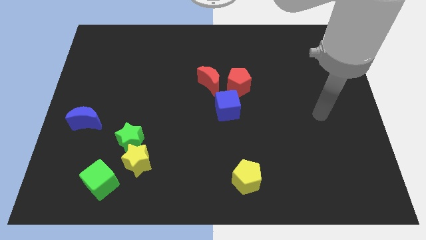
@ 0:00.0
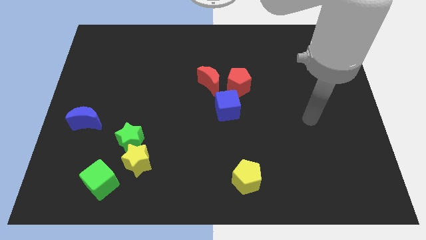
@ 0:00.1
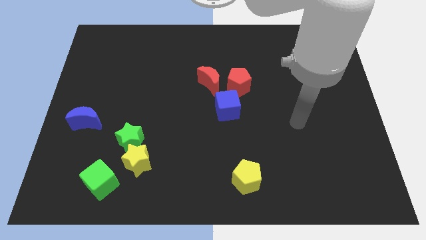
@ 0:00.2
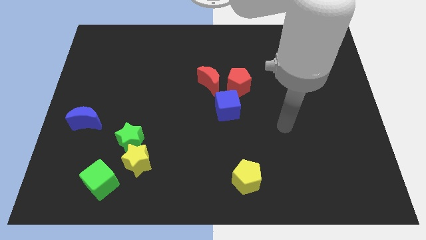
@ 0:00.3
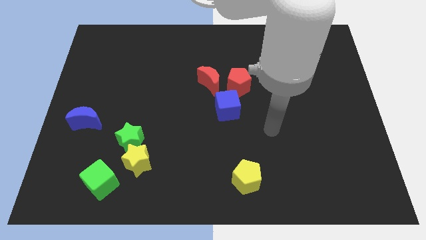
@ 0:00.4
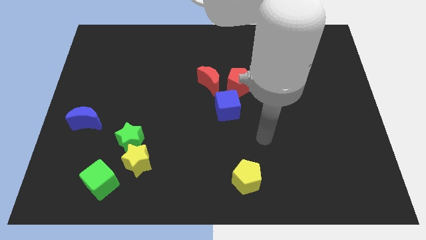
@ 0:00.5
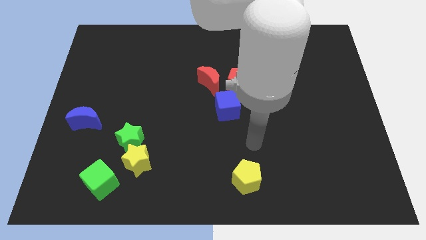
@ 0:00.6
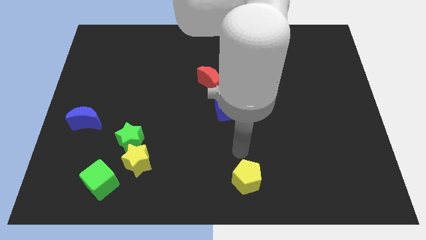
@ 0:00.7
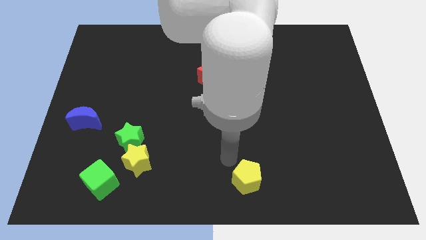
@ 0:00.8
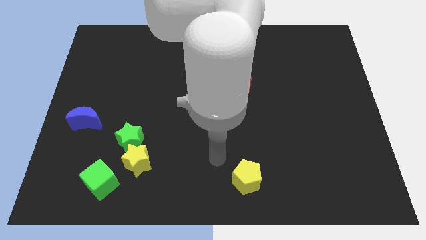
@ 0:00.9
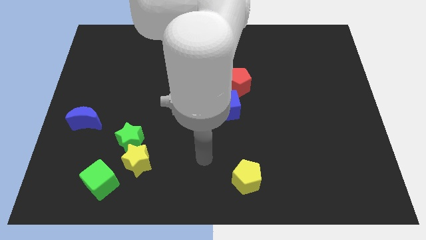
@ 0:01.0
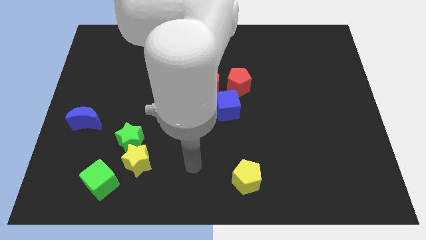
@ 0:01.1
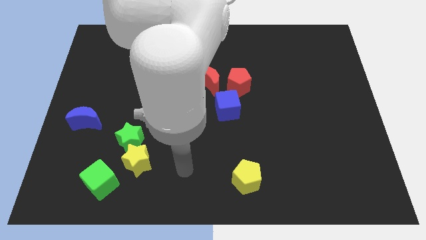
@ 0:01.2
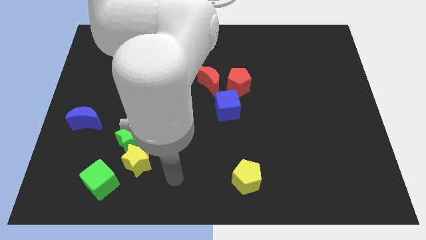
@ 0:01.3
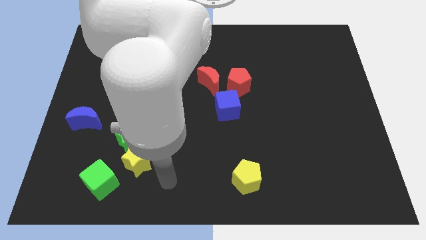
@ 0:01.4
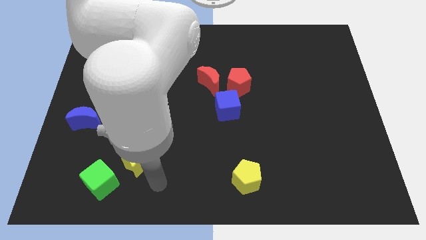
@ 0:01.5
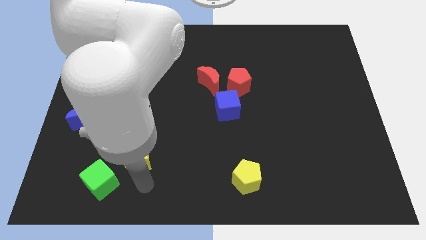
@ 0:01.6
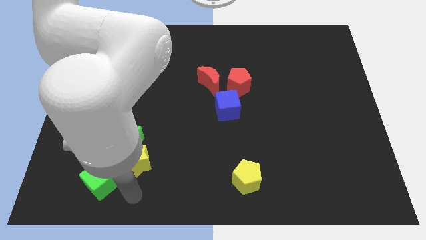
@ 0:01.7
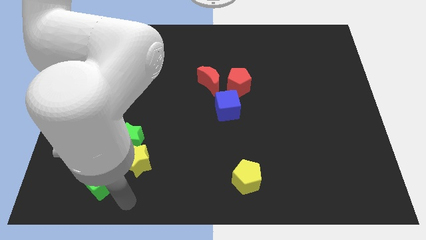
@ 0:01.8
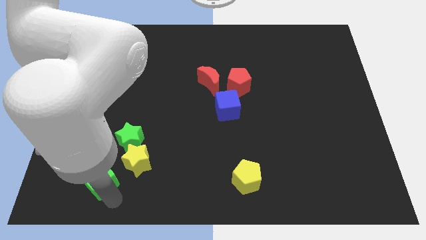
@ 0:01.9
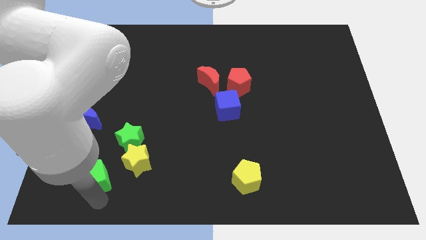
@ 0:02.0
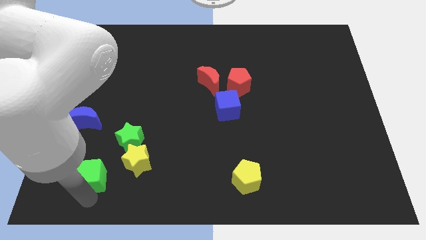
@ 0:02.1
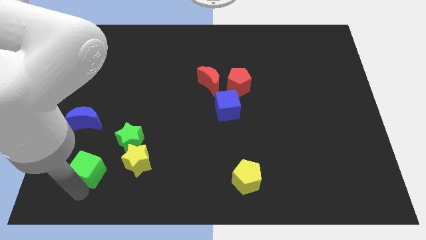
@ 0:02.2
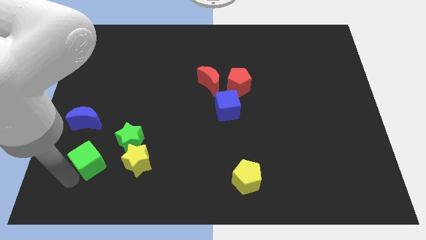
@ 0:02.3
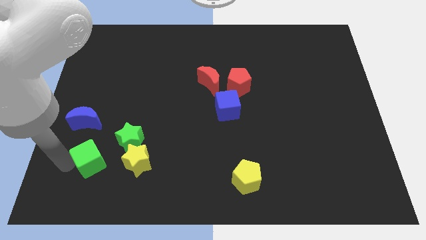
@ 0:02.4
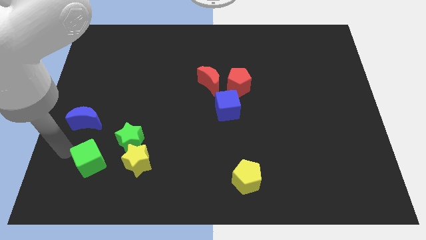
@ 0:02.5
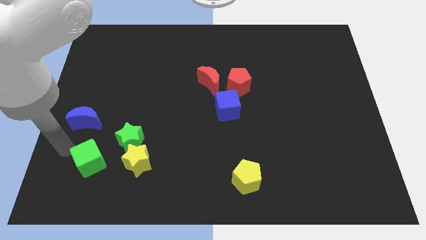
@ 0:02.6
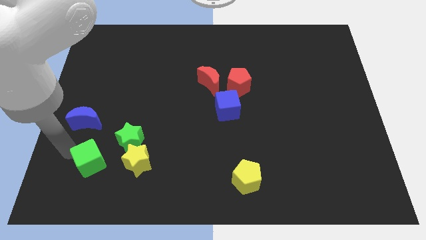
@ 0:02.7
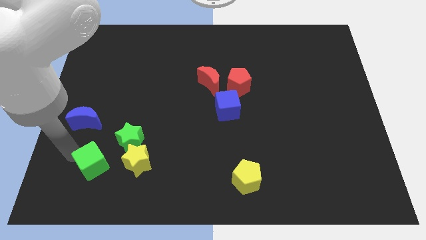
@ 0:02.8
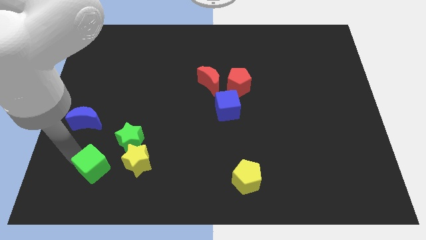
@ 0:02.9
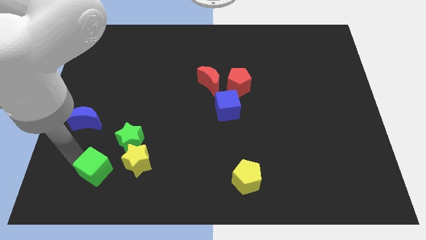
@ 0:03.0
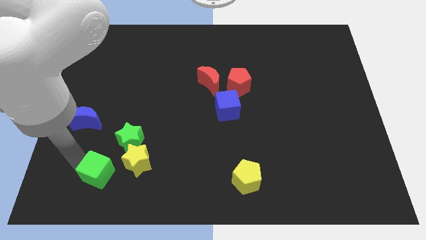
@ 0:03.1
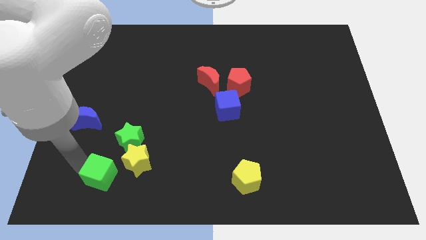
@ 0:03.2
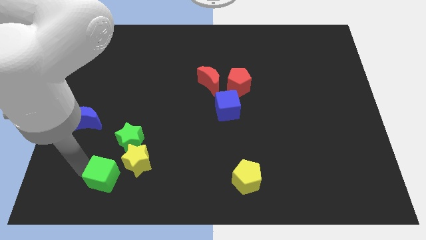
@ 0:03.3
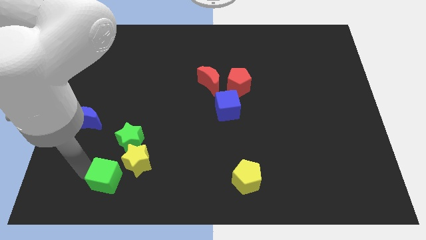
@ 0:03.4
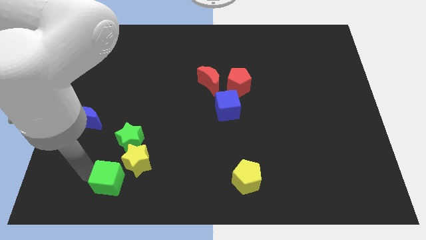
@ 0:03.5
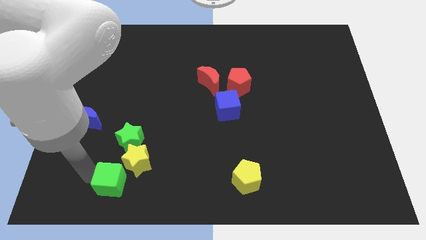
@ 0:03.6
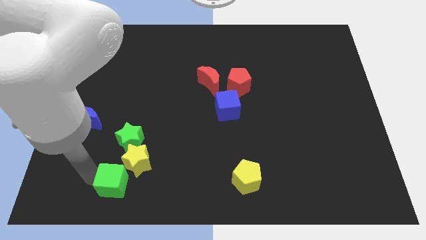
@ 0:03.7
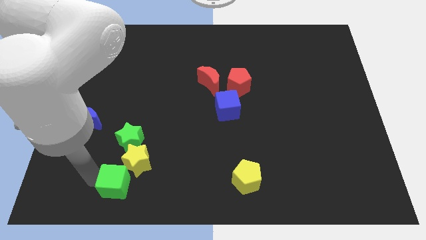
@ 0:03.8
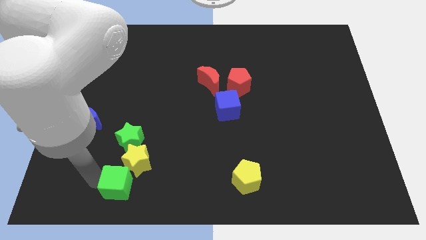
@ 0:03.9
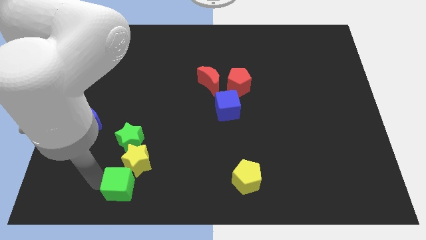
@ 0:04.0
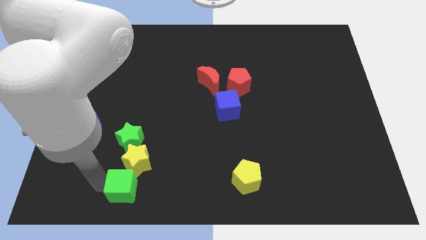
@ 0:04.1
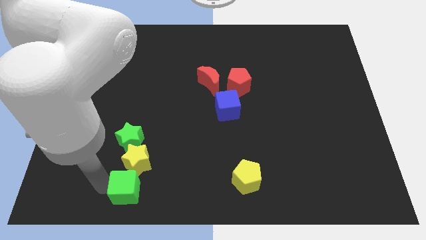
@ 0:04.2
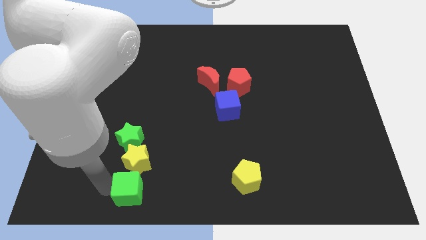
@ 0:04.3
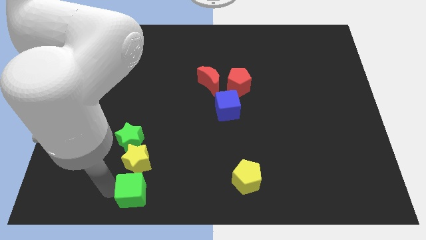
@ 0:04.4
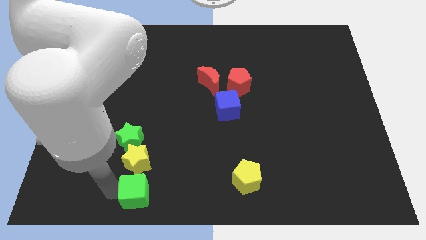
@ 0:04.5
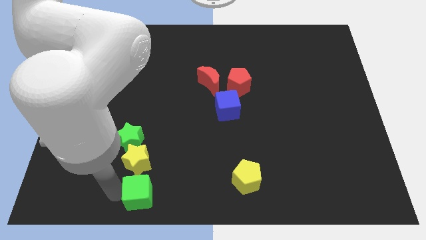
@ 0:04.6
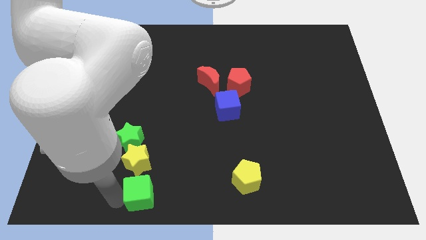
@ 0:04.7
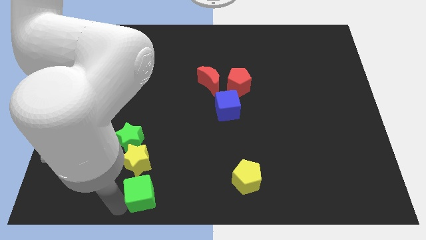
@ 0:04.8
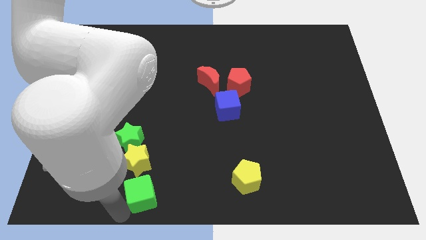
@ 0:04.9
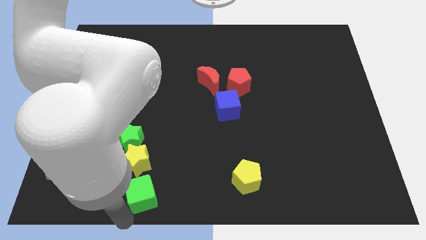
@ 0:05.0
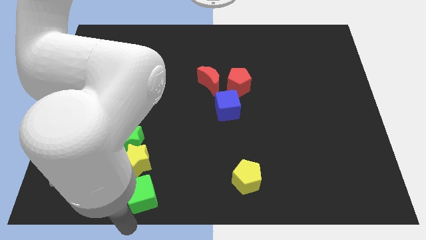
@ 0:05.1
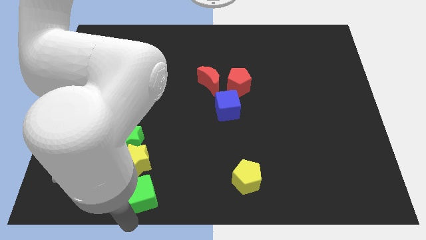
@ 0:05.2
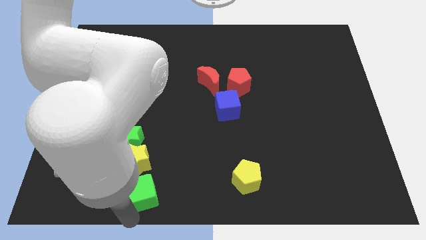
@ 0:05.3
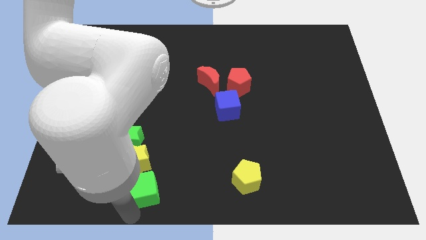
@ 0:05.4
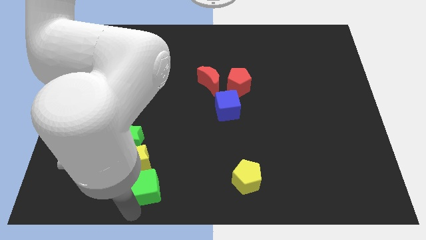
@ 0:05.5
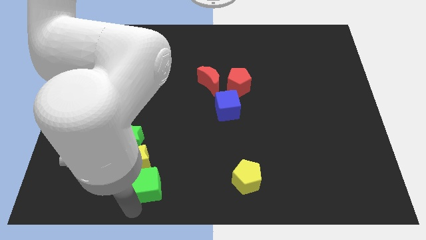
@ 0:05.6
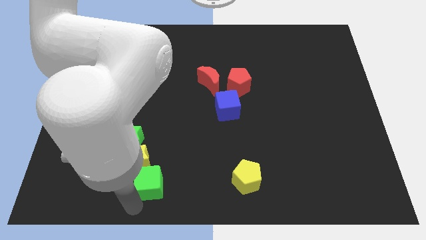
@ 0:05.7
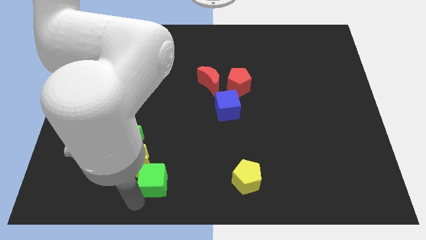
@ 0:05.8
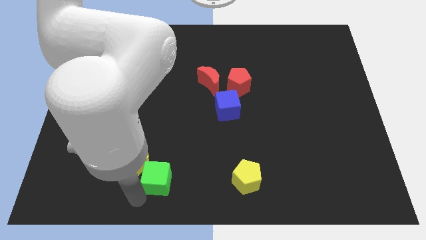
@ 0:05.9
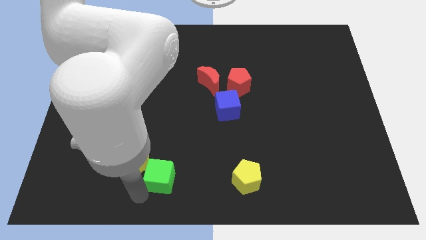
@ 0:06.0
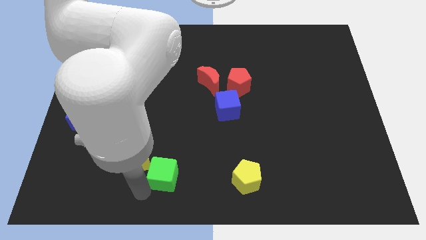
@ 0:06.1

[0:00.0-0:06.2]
move the green cube a little bit up and to the right diagonally

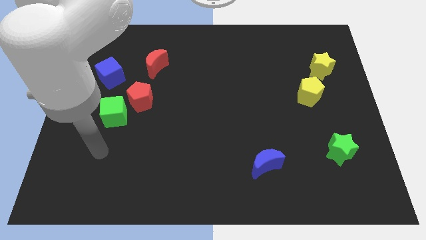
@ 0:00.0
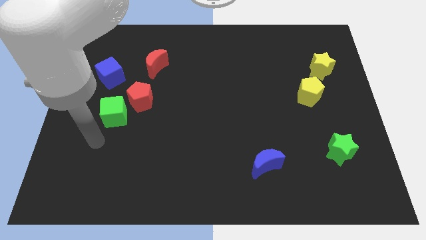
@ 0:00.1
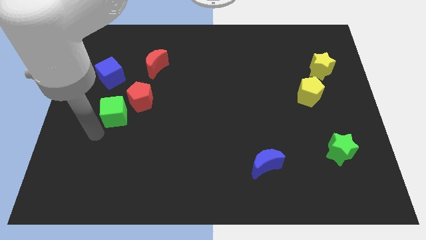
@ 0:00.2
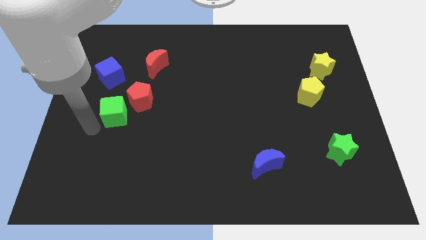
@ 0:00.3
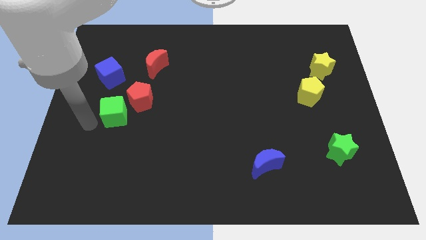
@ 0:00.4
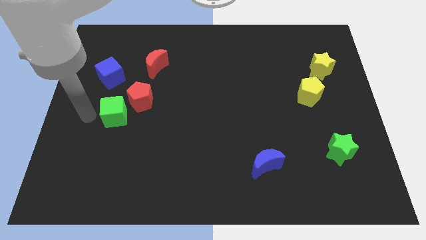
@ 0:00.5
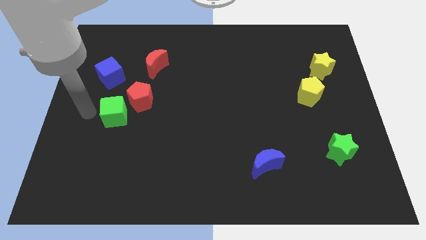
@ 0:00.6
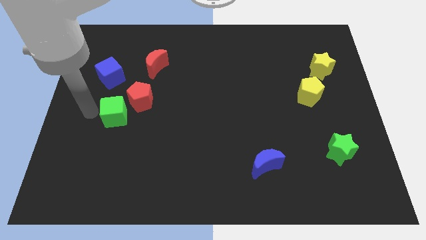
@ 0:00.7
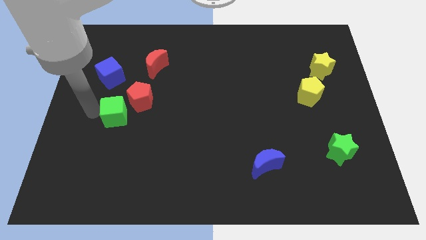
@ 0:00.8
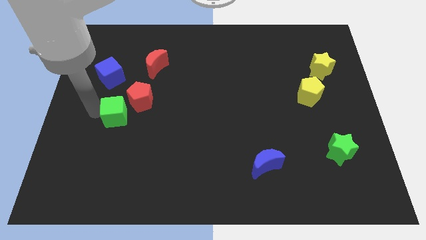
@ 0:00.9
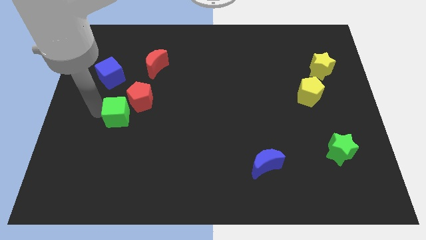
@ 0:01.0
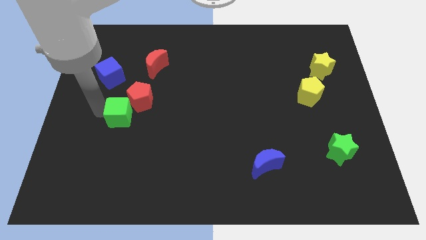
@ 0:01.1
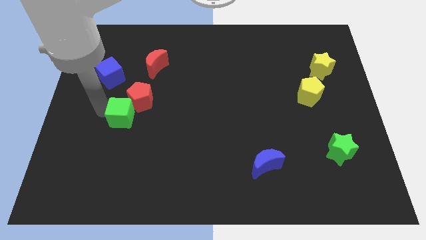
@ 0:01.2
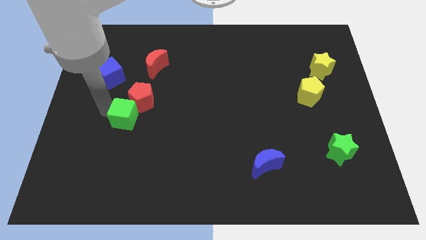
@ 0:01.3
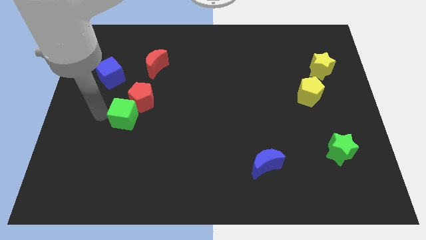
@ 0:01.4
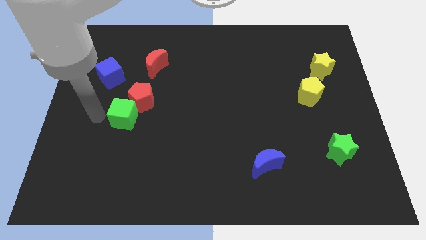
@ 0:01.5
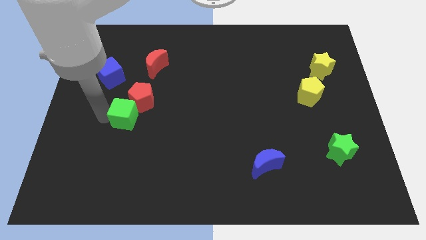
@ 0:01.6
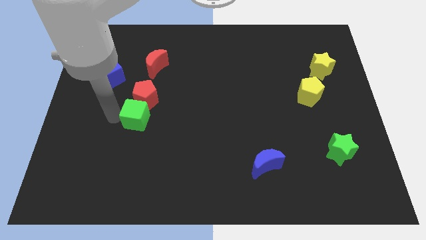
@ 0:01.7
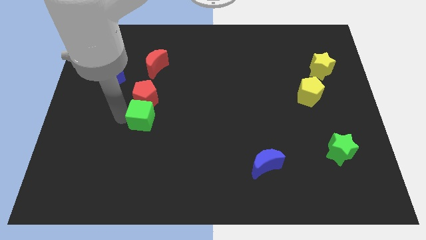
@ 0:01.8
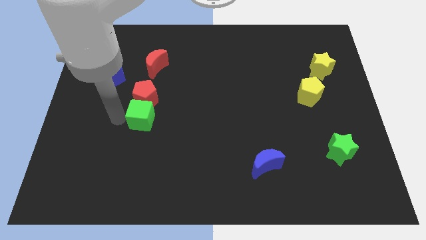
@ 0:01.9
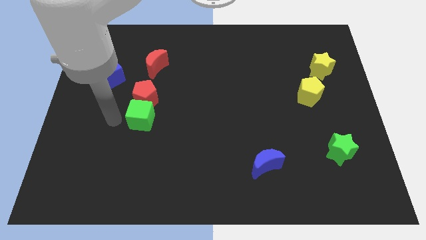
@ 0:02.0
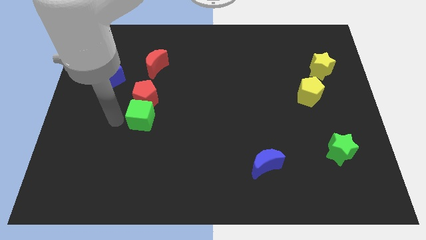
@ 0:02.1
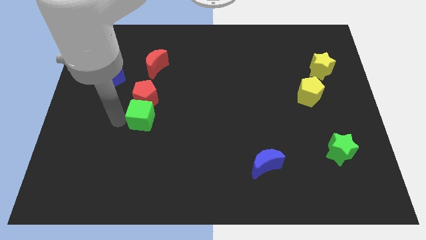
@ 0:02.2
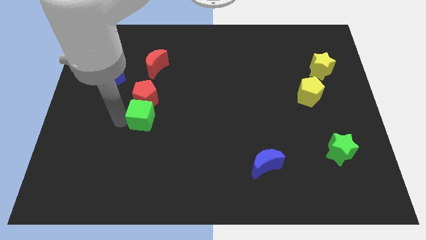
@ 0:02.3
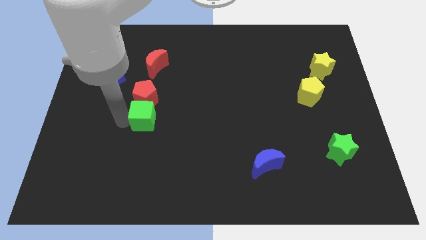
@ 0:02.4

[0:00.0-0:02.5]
move the green cube a little bit to the right
